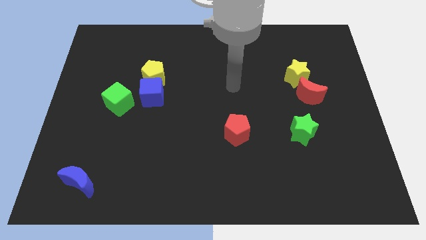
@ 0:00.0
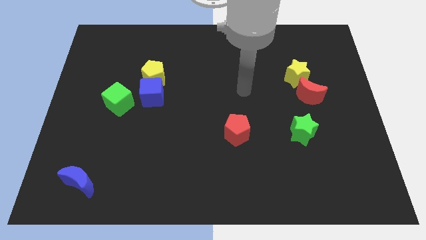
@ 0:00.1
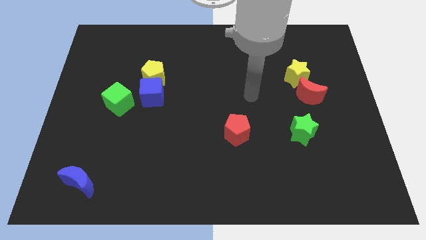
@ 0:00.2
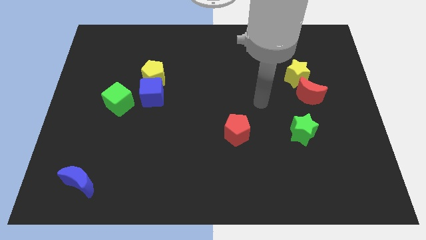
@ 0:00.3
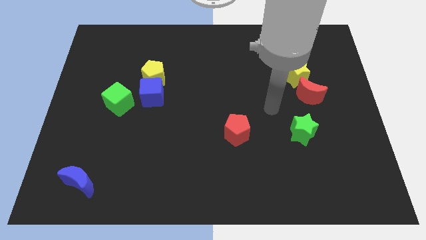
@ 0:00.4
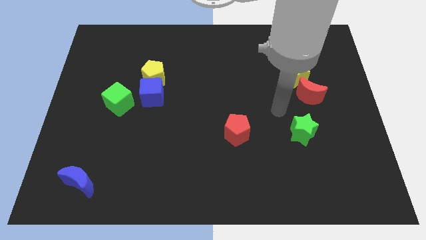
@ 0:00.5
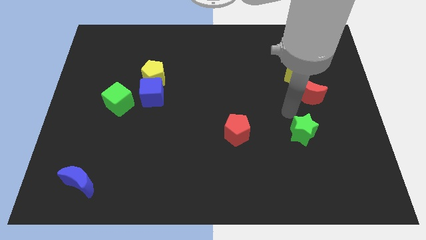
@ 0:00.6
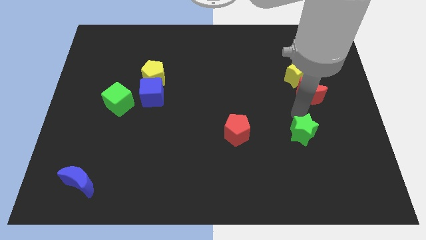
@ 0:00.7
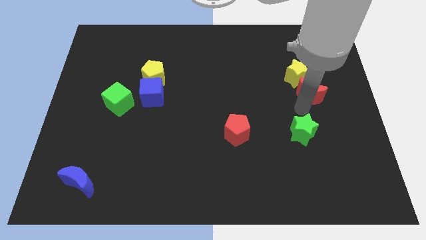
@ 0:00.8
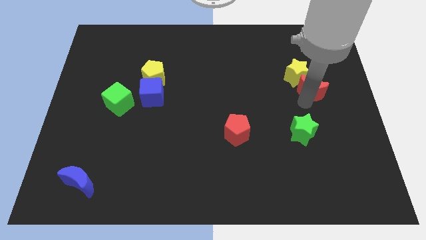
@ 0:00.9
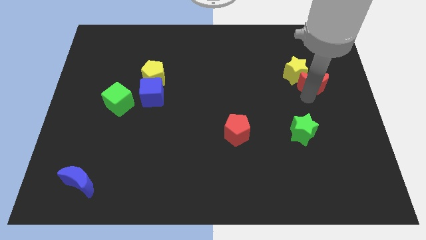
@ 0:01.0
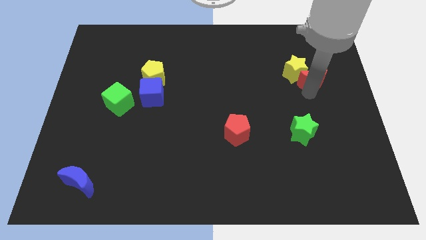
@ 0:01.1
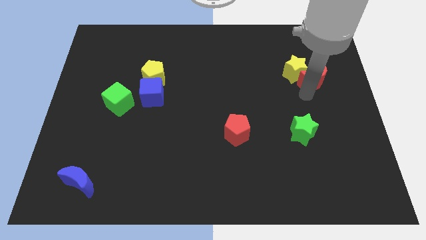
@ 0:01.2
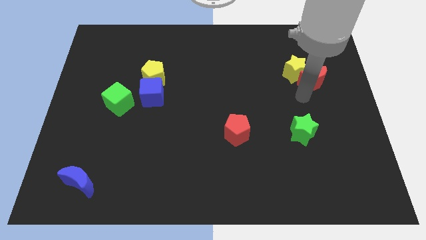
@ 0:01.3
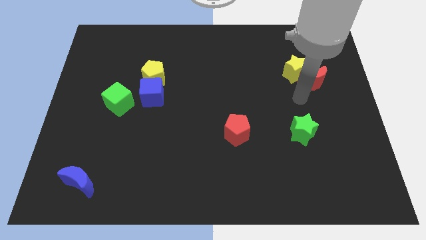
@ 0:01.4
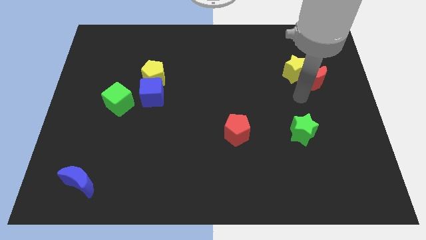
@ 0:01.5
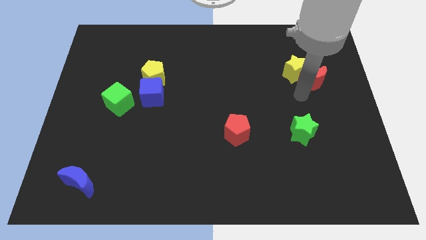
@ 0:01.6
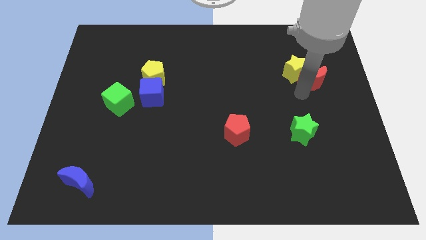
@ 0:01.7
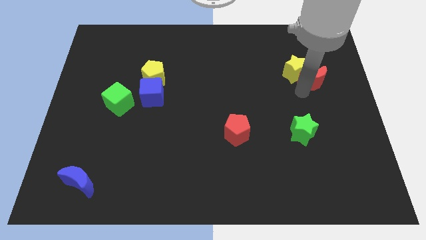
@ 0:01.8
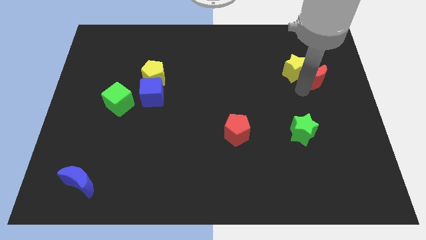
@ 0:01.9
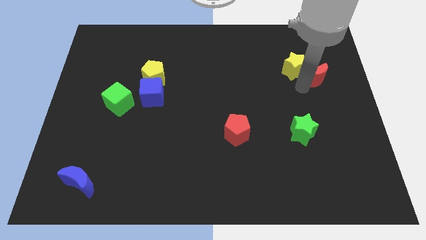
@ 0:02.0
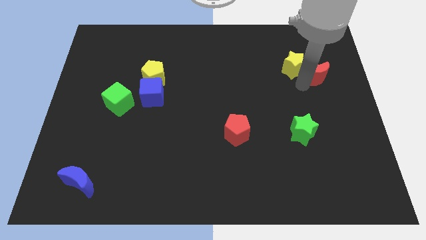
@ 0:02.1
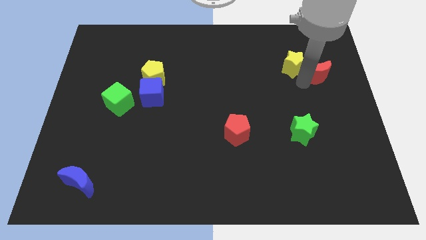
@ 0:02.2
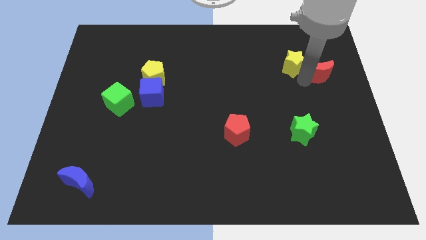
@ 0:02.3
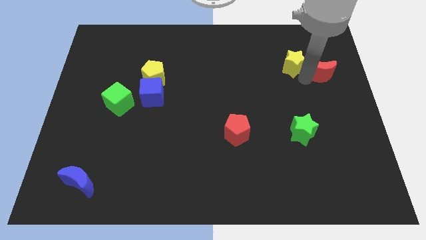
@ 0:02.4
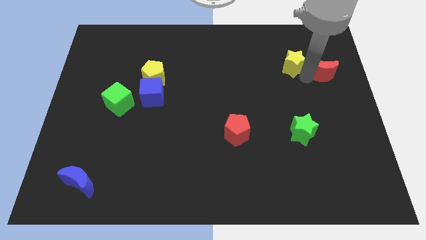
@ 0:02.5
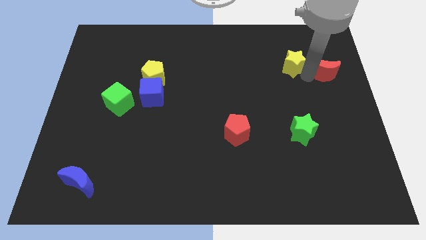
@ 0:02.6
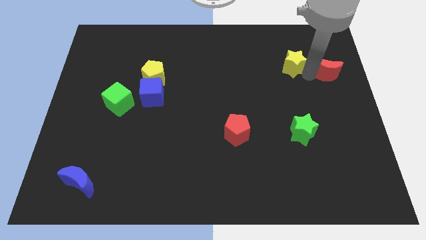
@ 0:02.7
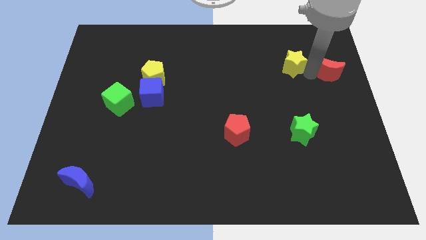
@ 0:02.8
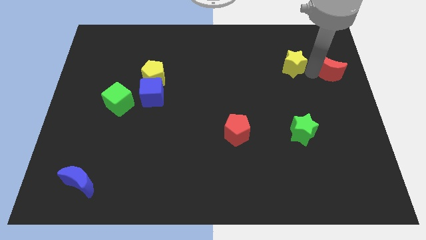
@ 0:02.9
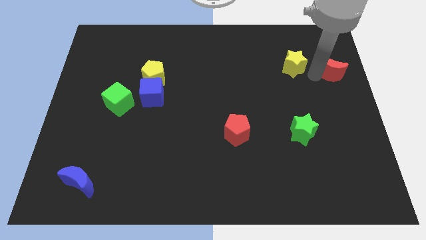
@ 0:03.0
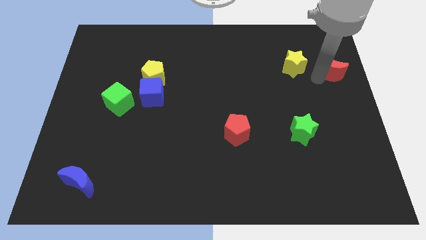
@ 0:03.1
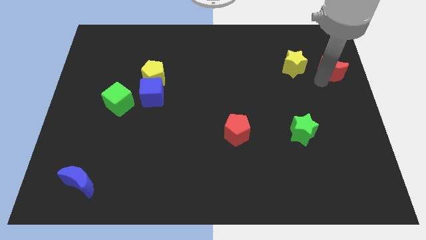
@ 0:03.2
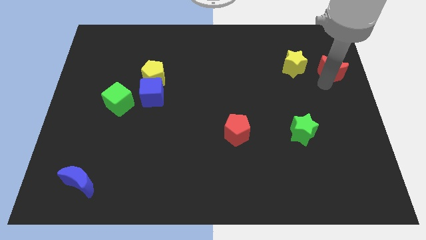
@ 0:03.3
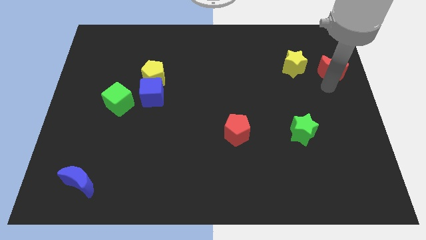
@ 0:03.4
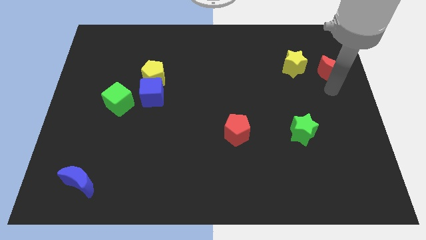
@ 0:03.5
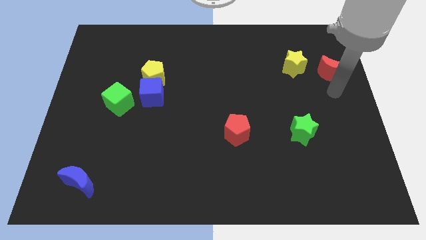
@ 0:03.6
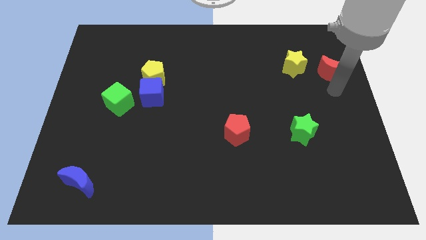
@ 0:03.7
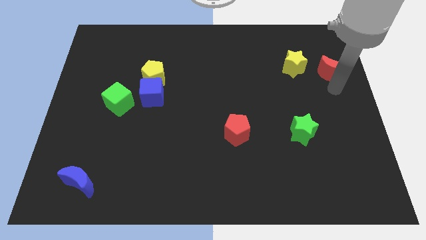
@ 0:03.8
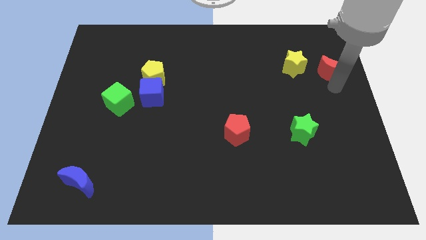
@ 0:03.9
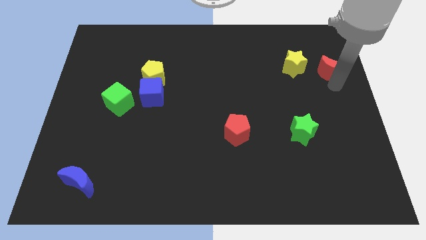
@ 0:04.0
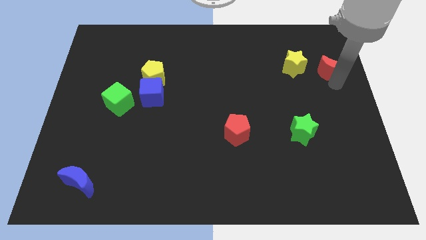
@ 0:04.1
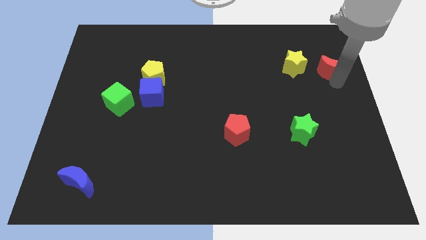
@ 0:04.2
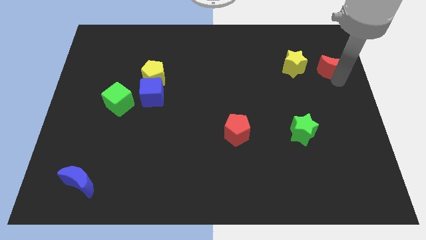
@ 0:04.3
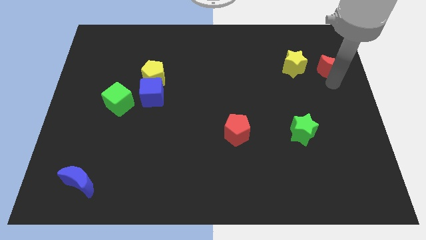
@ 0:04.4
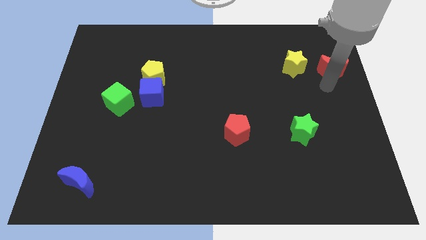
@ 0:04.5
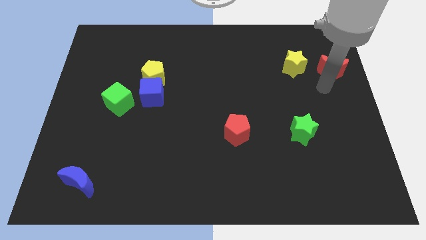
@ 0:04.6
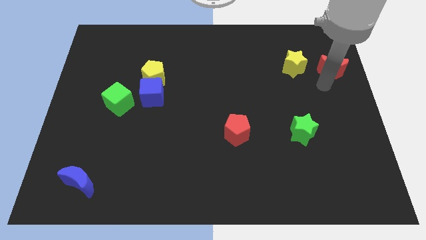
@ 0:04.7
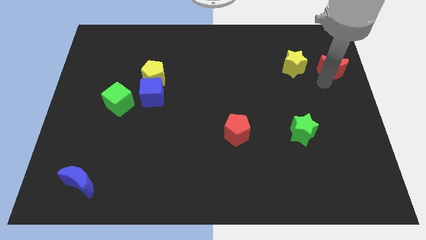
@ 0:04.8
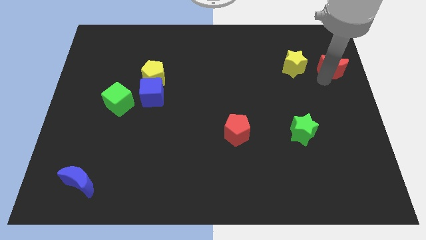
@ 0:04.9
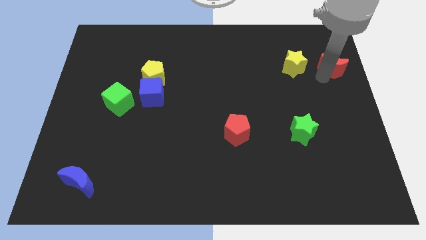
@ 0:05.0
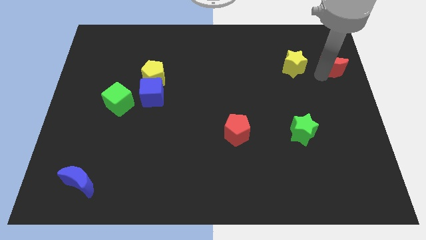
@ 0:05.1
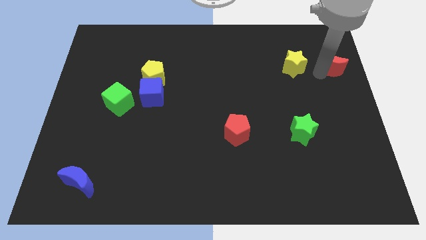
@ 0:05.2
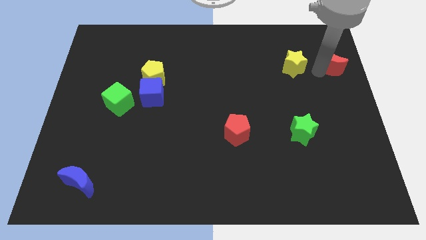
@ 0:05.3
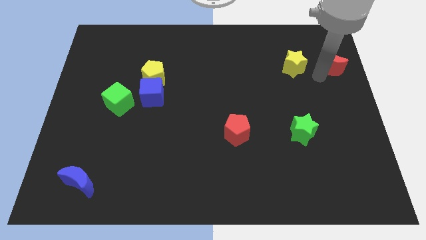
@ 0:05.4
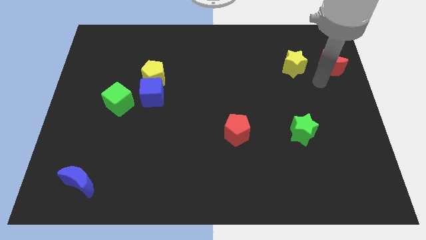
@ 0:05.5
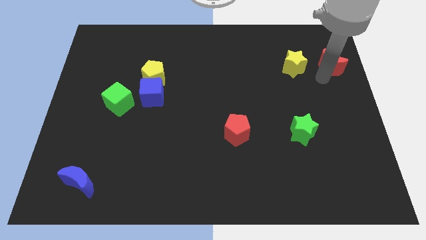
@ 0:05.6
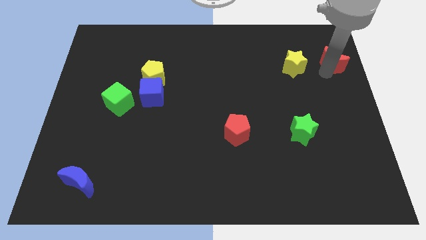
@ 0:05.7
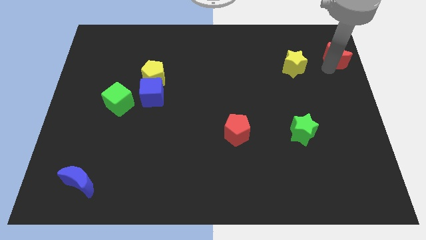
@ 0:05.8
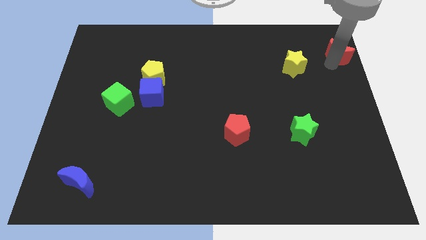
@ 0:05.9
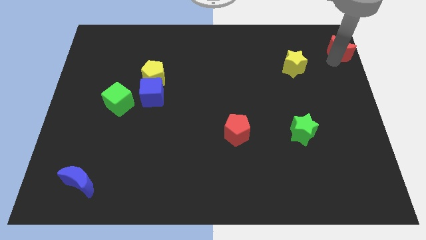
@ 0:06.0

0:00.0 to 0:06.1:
move the red moon to the top right
